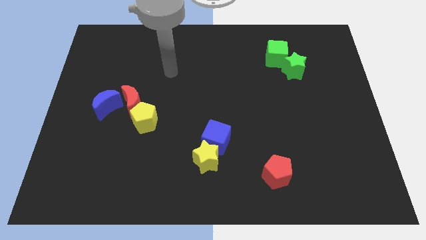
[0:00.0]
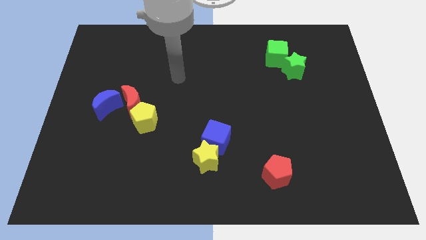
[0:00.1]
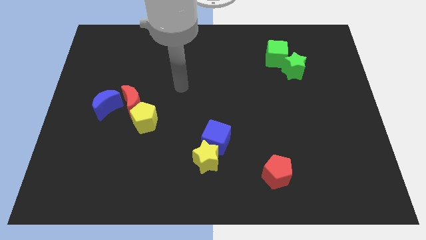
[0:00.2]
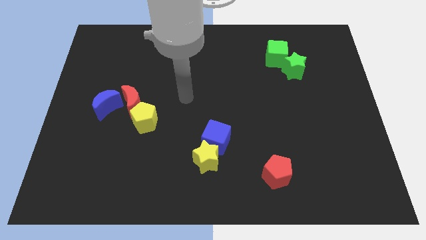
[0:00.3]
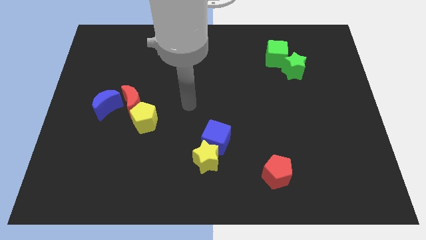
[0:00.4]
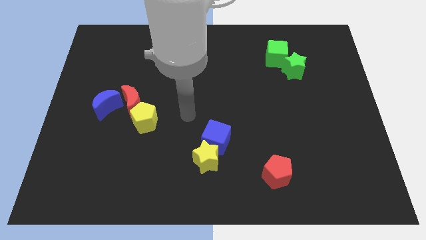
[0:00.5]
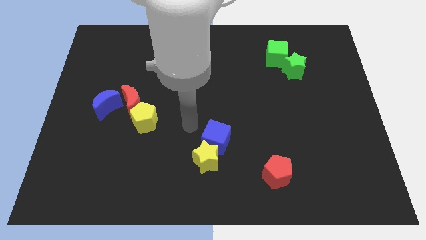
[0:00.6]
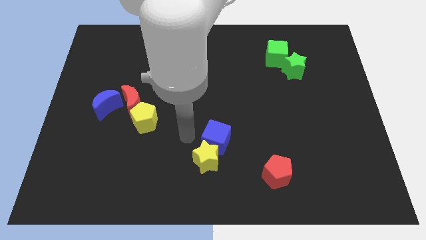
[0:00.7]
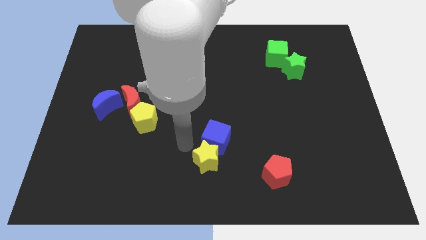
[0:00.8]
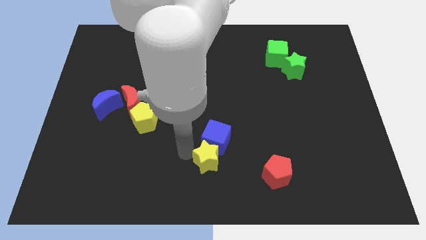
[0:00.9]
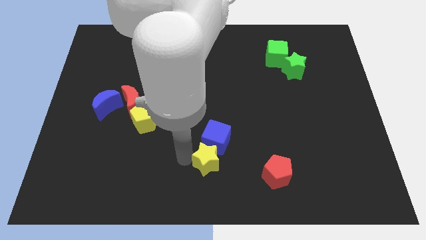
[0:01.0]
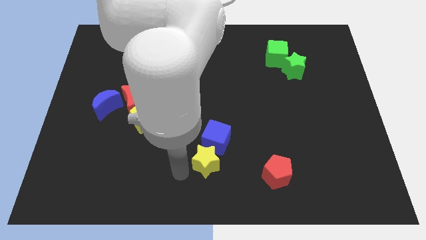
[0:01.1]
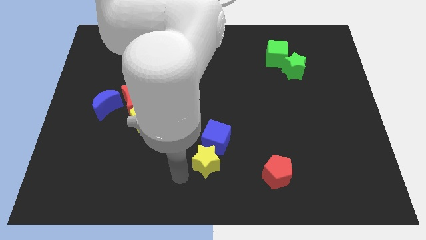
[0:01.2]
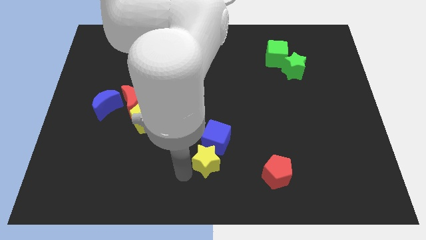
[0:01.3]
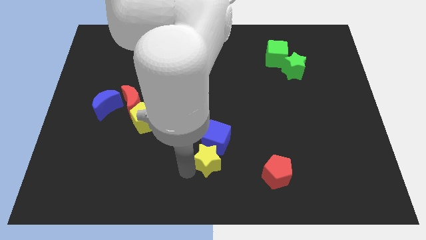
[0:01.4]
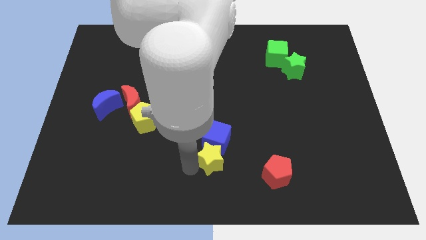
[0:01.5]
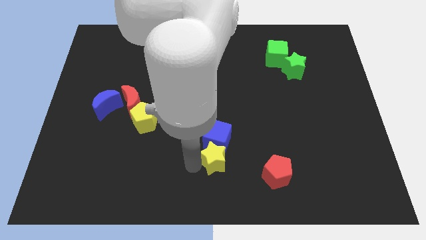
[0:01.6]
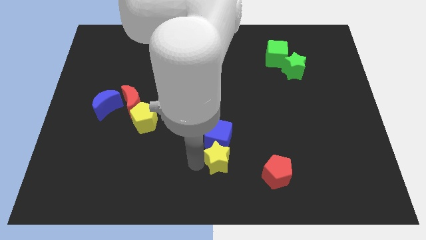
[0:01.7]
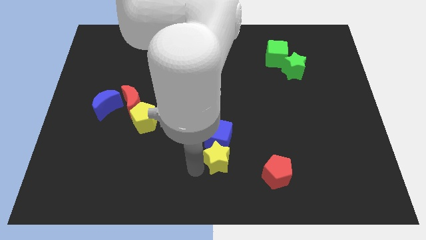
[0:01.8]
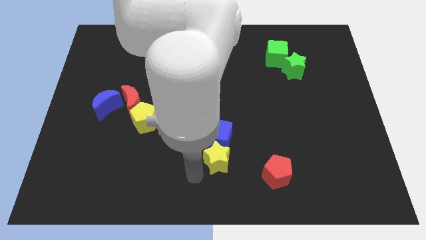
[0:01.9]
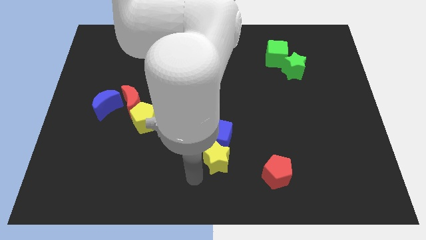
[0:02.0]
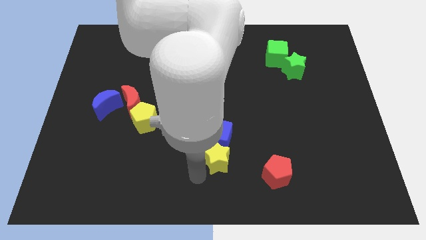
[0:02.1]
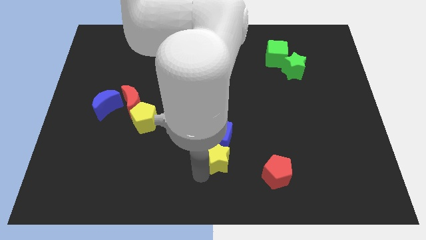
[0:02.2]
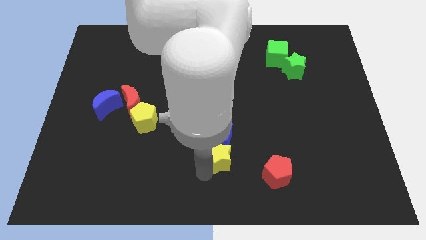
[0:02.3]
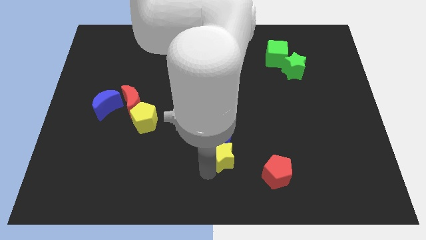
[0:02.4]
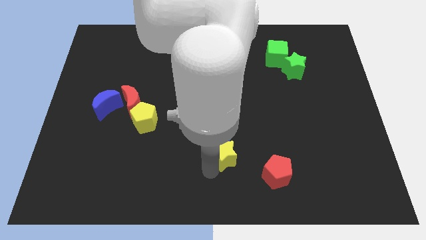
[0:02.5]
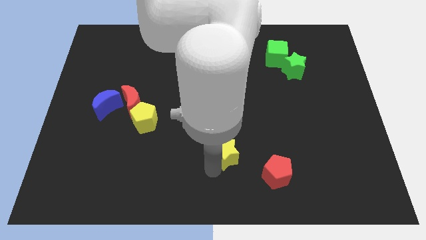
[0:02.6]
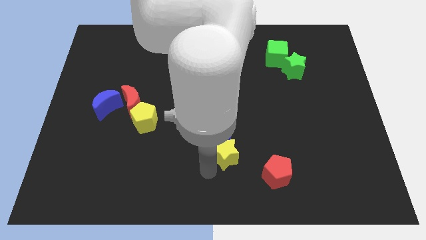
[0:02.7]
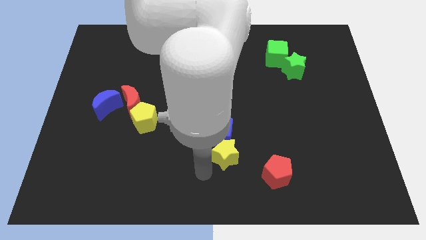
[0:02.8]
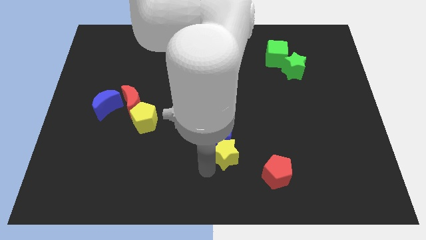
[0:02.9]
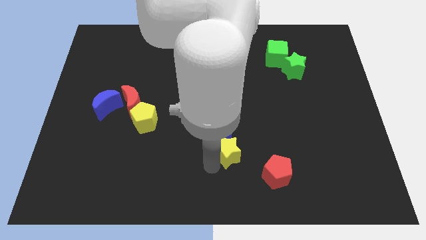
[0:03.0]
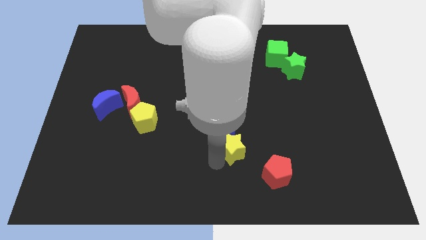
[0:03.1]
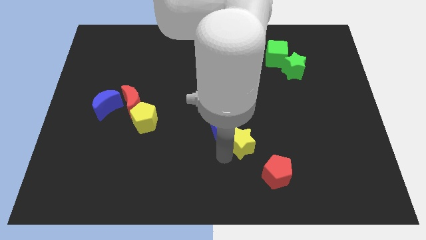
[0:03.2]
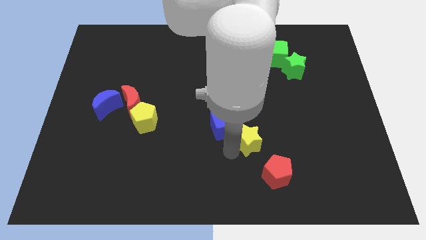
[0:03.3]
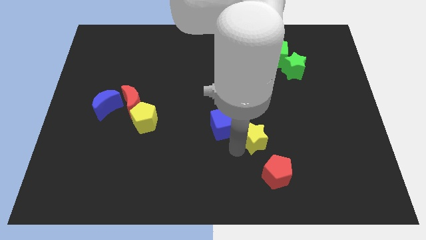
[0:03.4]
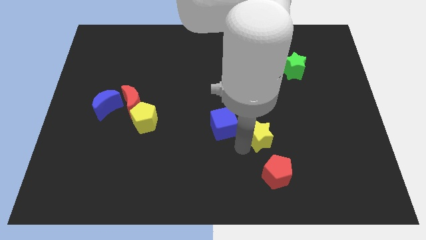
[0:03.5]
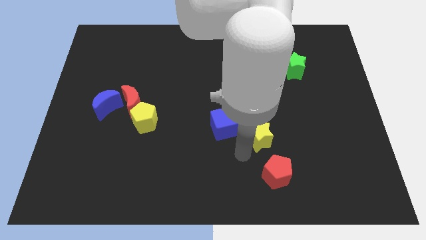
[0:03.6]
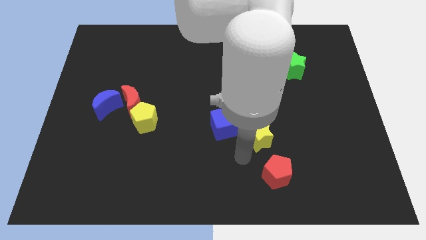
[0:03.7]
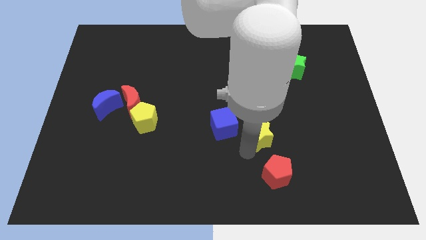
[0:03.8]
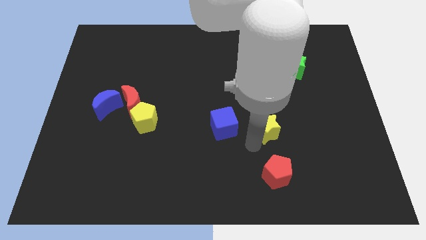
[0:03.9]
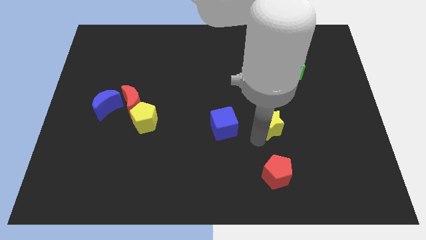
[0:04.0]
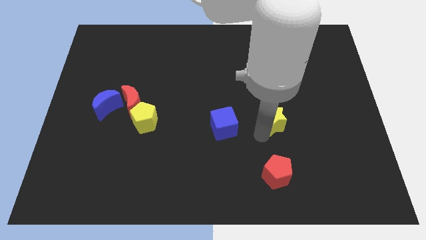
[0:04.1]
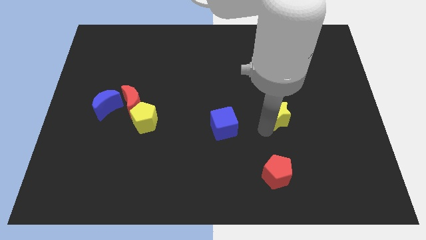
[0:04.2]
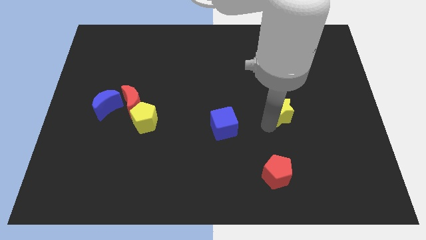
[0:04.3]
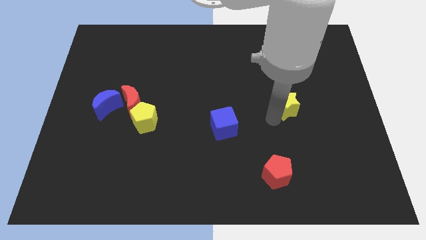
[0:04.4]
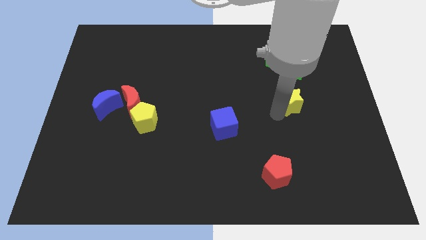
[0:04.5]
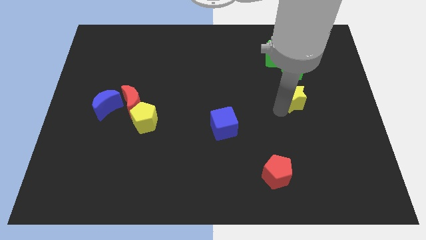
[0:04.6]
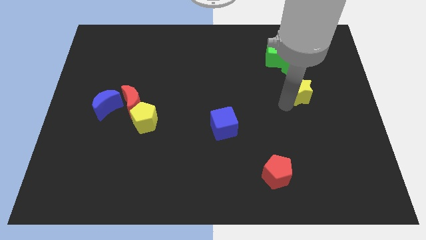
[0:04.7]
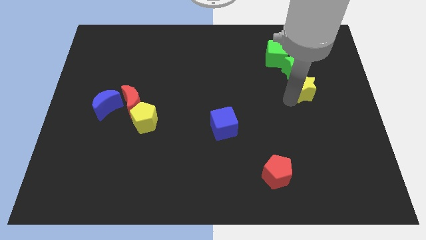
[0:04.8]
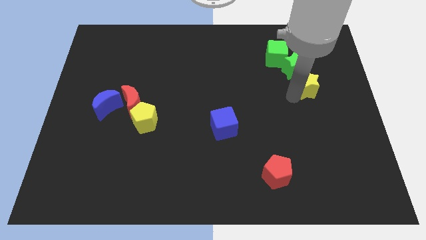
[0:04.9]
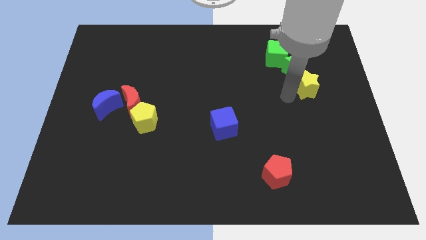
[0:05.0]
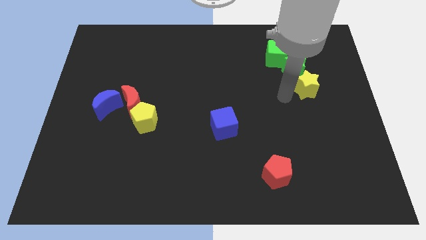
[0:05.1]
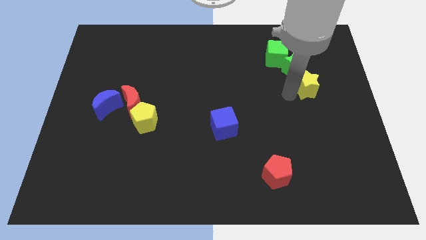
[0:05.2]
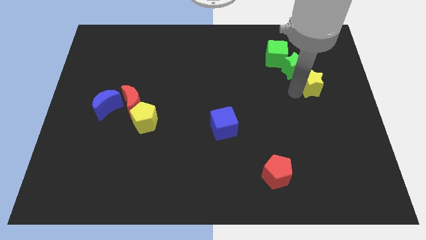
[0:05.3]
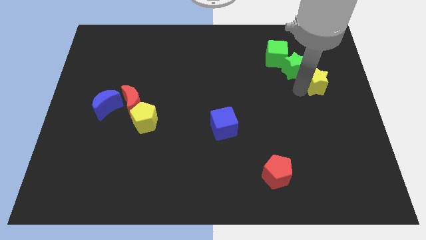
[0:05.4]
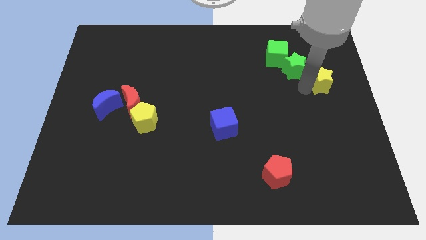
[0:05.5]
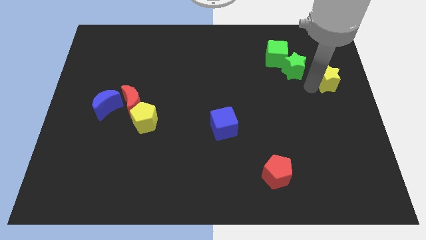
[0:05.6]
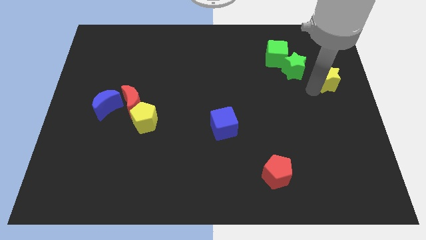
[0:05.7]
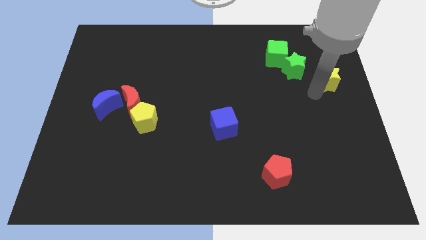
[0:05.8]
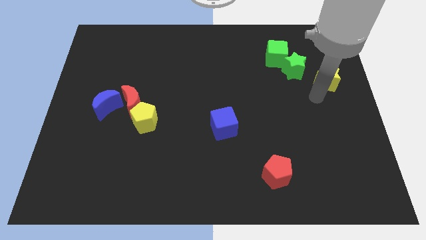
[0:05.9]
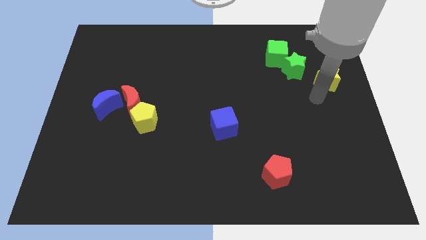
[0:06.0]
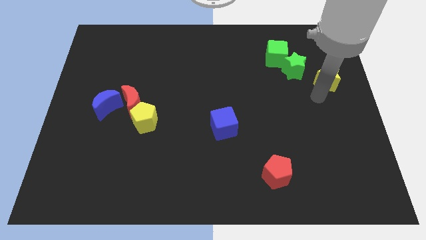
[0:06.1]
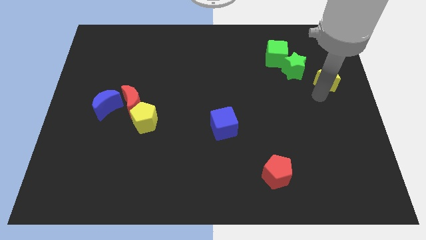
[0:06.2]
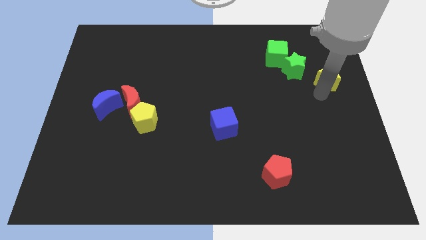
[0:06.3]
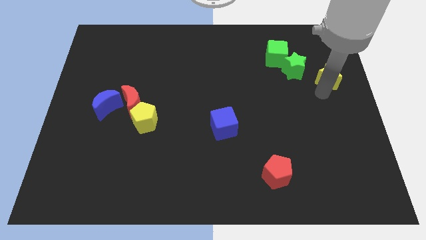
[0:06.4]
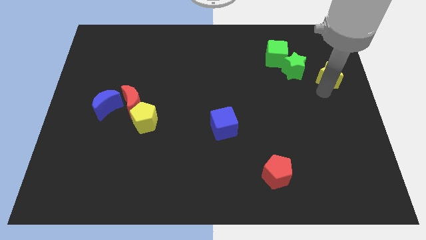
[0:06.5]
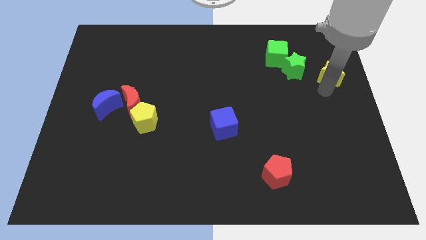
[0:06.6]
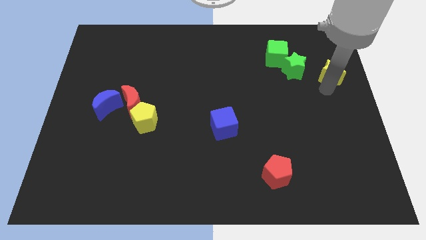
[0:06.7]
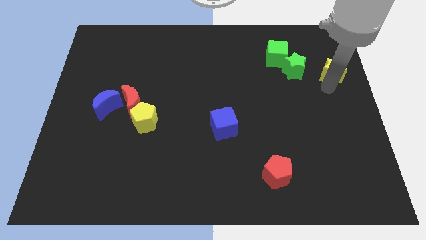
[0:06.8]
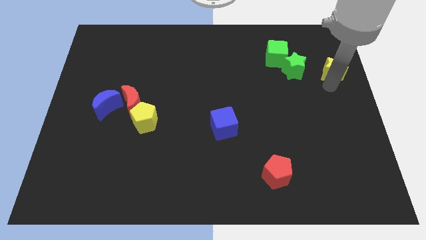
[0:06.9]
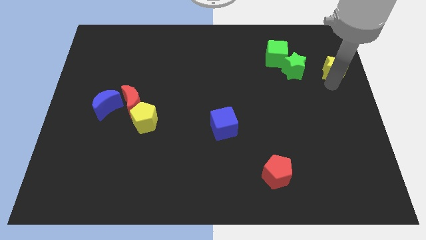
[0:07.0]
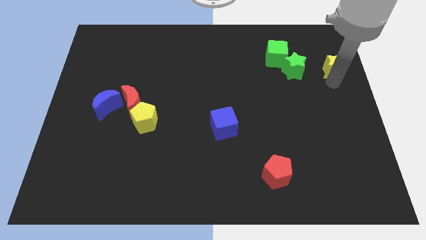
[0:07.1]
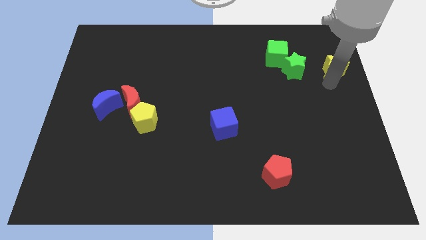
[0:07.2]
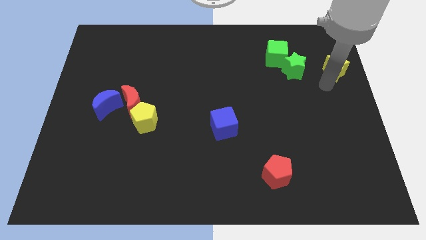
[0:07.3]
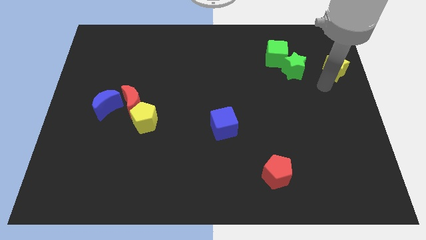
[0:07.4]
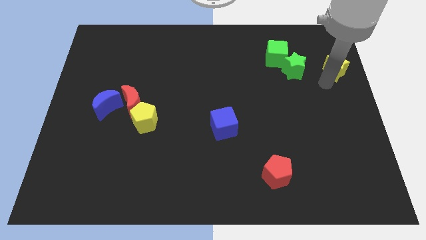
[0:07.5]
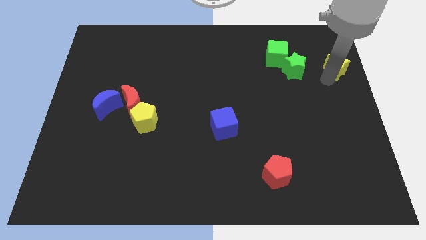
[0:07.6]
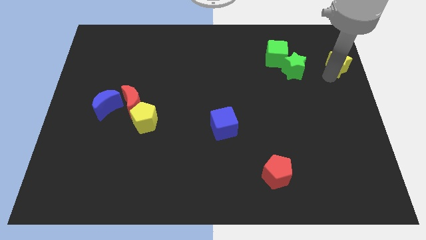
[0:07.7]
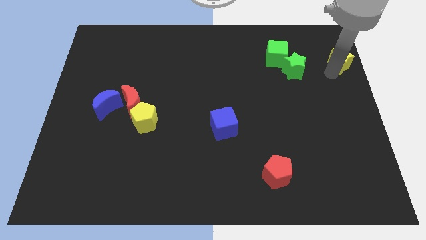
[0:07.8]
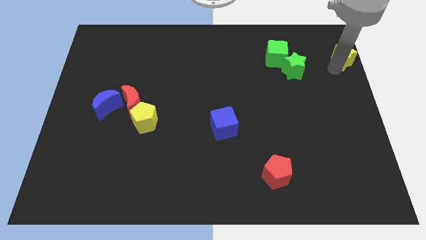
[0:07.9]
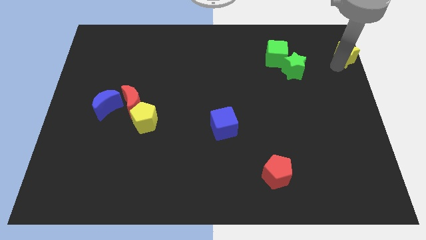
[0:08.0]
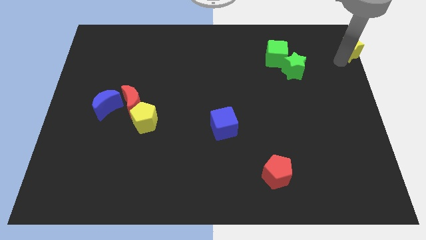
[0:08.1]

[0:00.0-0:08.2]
push the yellow star to the top right
